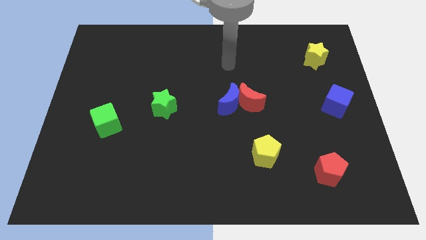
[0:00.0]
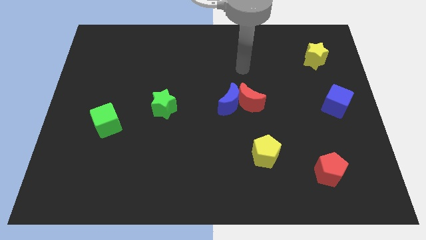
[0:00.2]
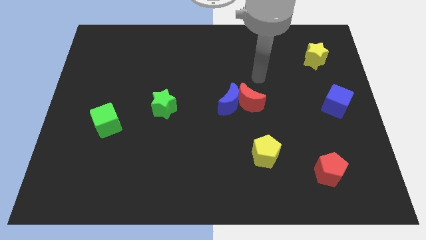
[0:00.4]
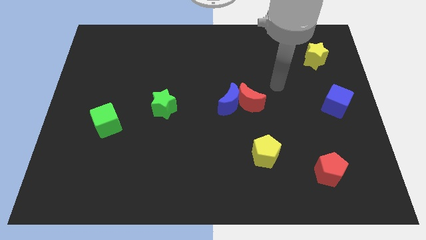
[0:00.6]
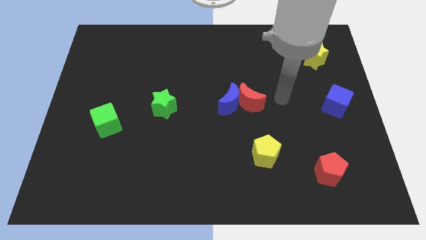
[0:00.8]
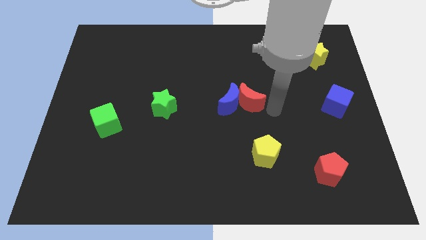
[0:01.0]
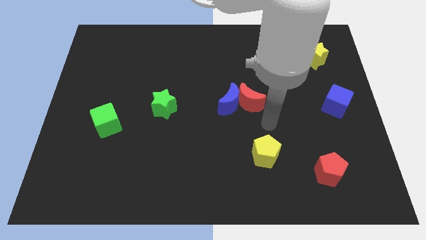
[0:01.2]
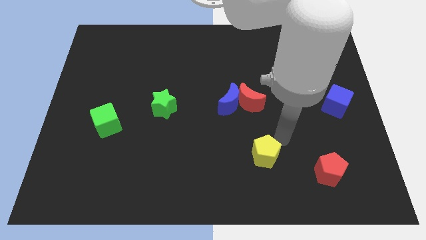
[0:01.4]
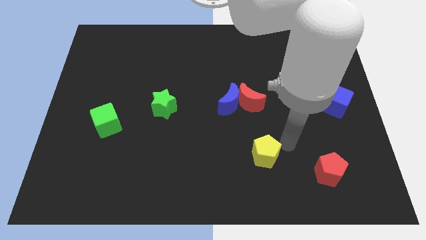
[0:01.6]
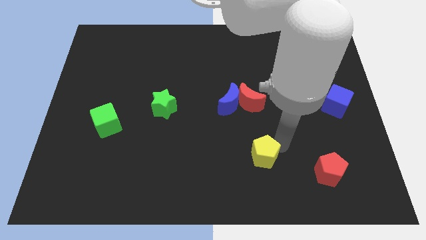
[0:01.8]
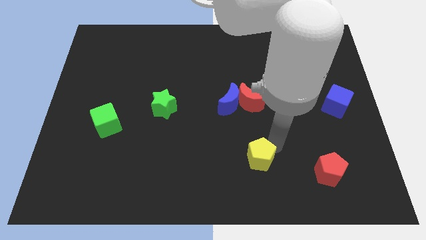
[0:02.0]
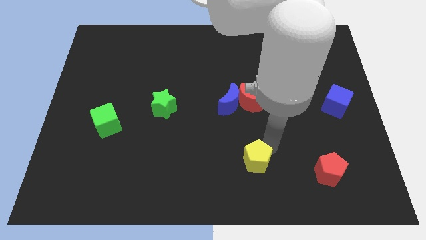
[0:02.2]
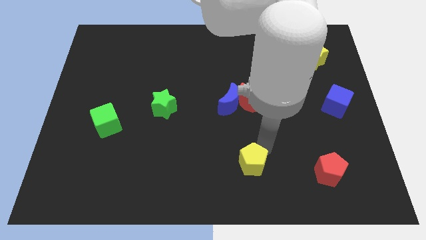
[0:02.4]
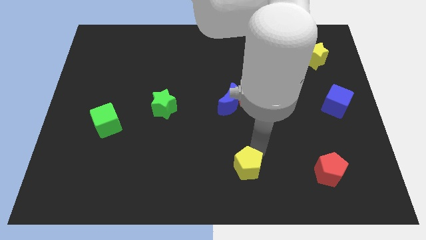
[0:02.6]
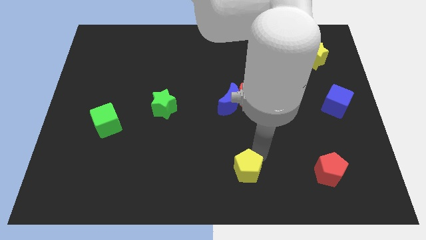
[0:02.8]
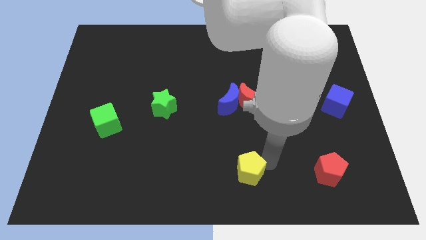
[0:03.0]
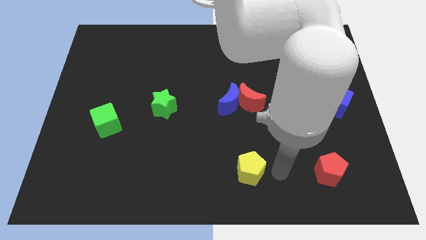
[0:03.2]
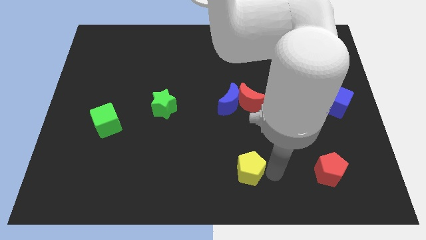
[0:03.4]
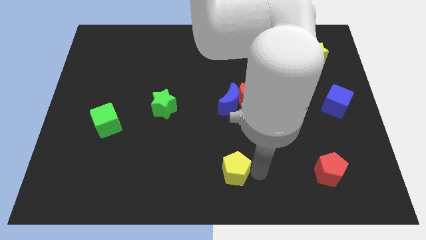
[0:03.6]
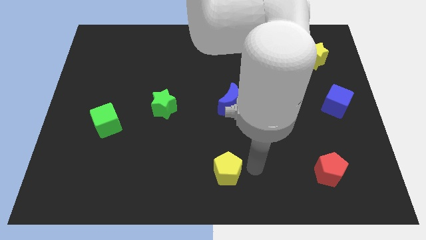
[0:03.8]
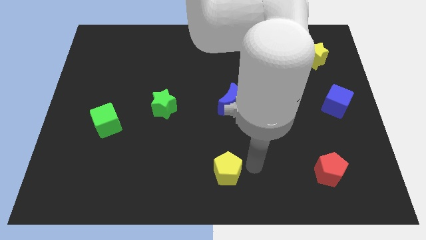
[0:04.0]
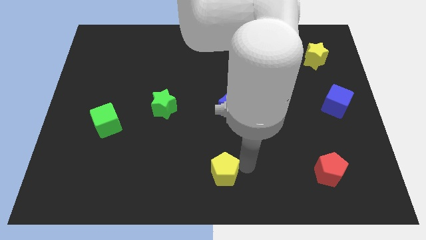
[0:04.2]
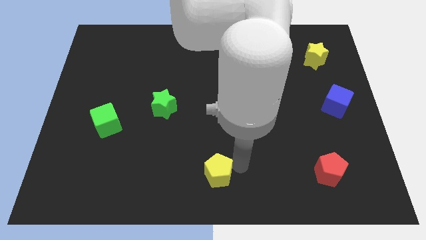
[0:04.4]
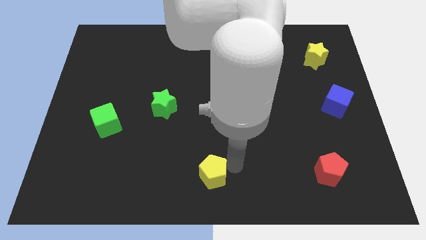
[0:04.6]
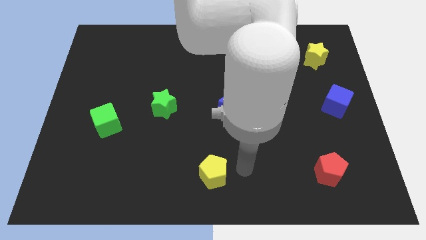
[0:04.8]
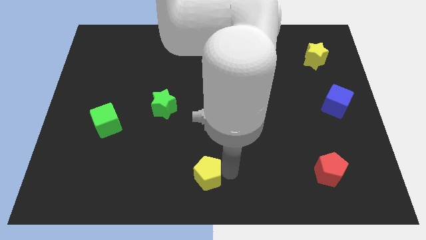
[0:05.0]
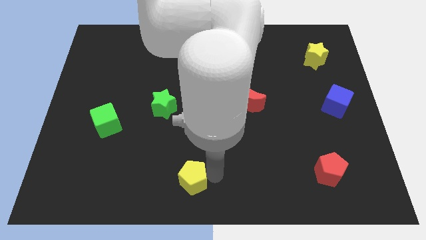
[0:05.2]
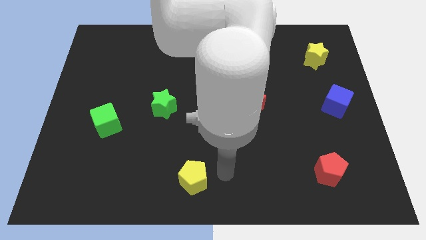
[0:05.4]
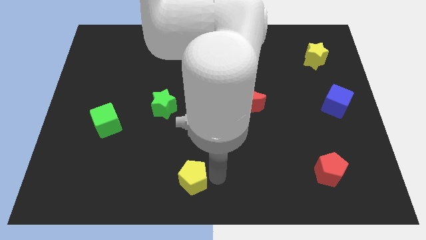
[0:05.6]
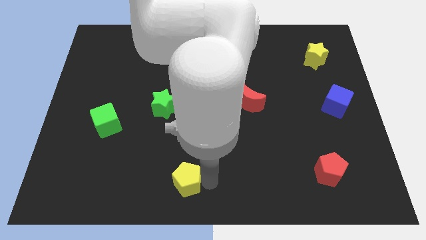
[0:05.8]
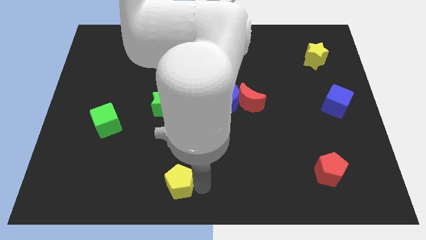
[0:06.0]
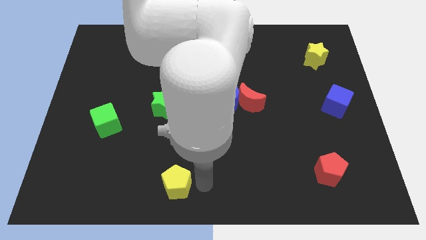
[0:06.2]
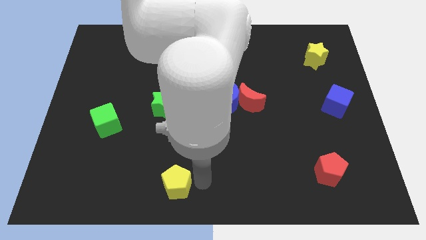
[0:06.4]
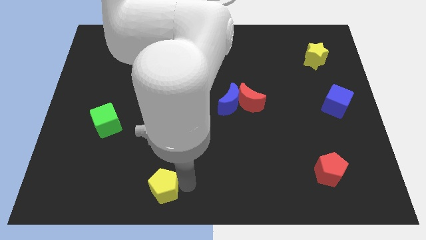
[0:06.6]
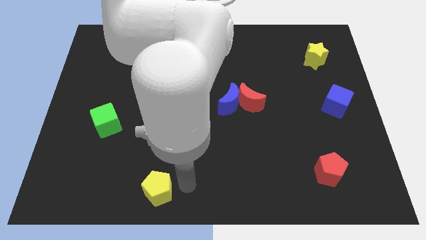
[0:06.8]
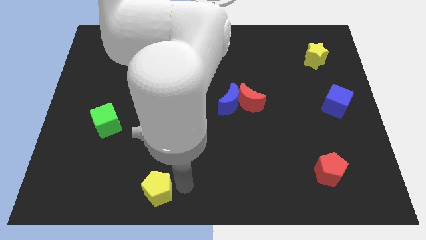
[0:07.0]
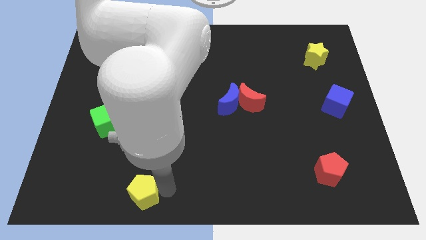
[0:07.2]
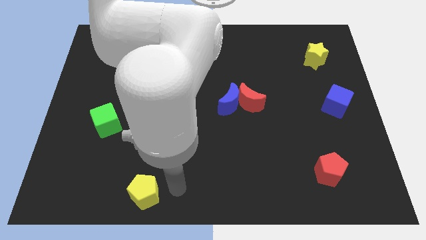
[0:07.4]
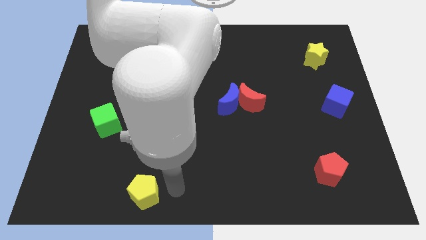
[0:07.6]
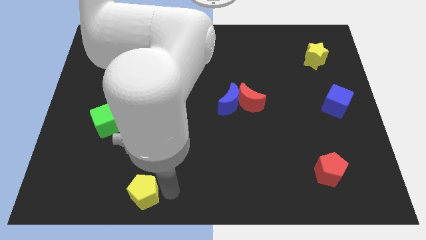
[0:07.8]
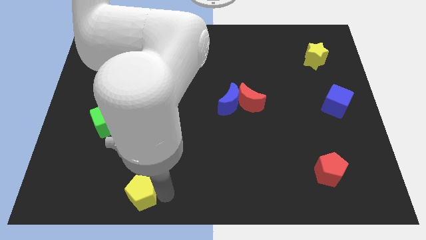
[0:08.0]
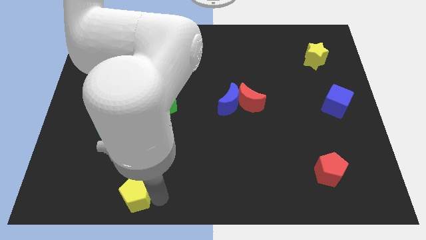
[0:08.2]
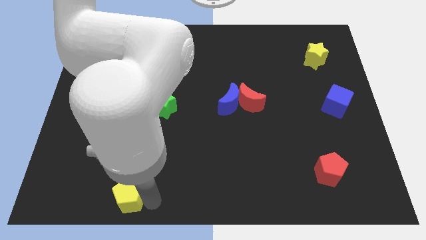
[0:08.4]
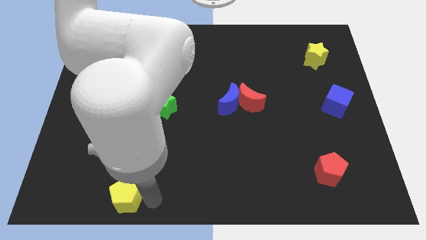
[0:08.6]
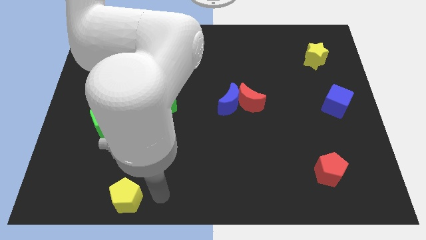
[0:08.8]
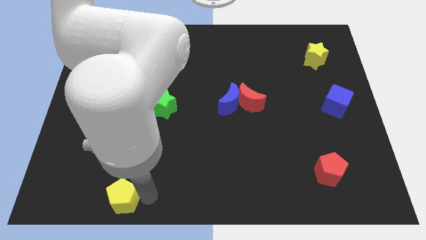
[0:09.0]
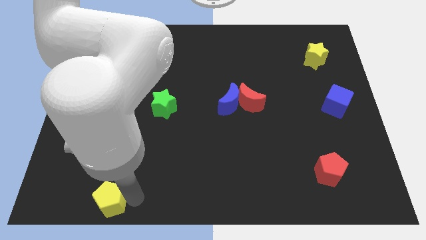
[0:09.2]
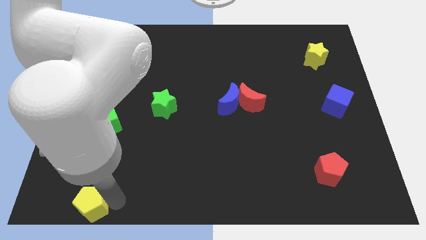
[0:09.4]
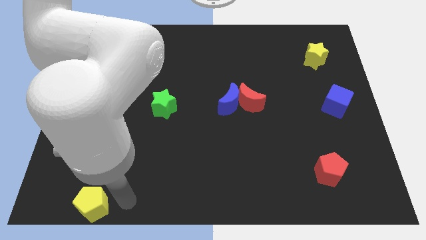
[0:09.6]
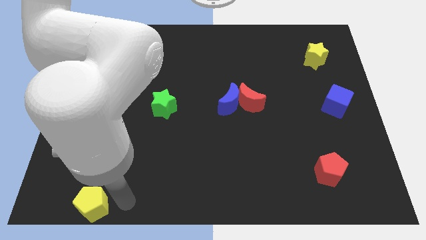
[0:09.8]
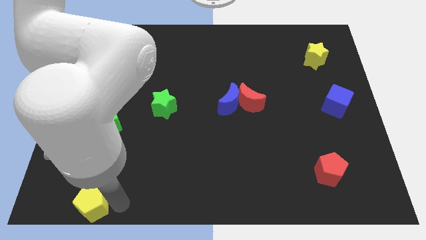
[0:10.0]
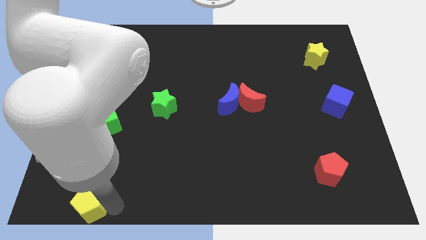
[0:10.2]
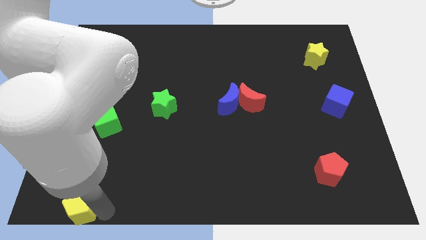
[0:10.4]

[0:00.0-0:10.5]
slide the yellow pentagon to the lower left corner
